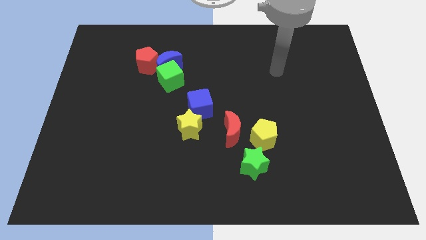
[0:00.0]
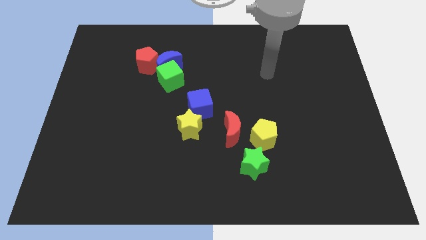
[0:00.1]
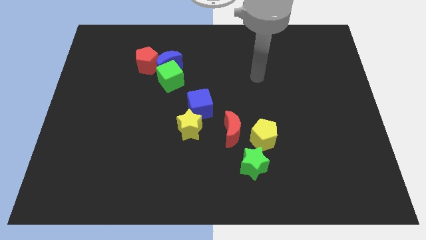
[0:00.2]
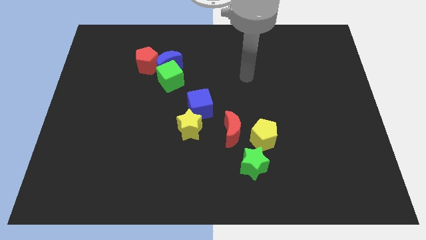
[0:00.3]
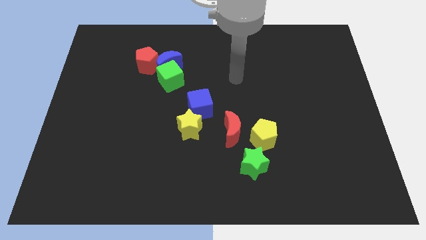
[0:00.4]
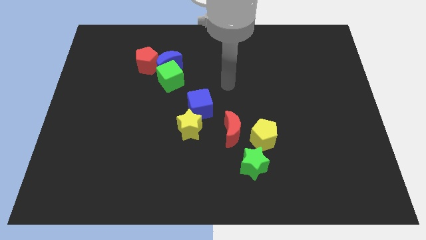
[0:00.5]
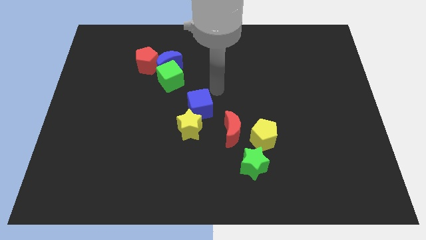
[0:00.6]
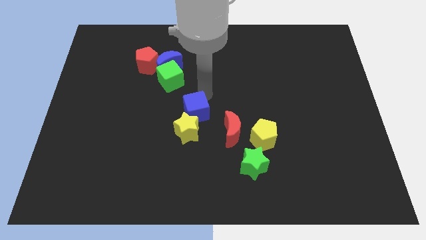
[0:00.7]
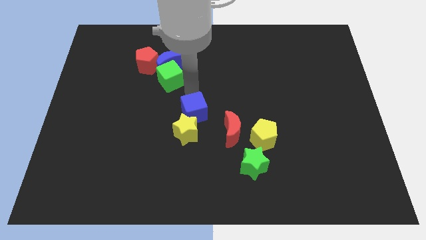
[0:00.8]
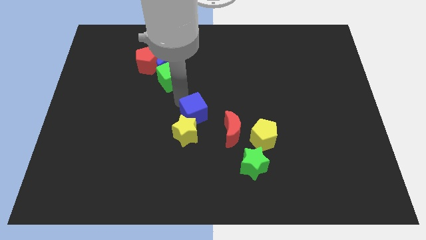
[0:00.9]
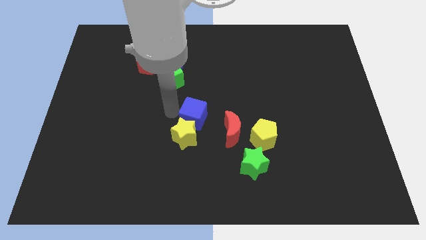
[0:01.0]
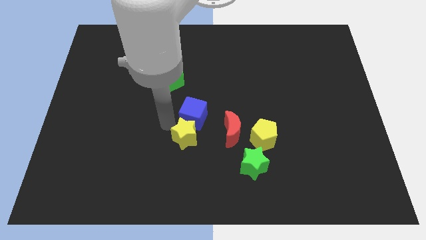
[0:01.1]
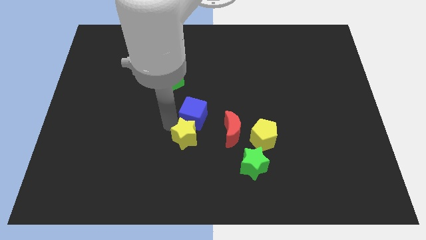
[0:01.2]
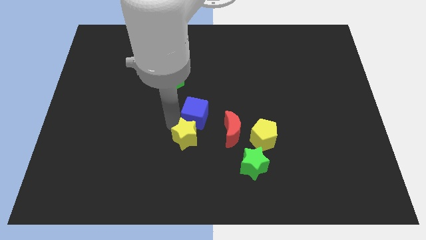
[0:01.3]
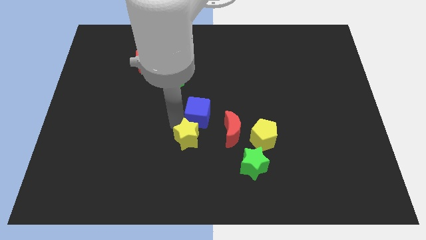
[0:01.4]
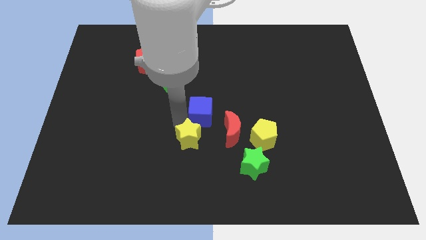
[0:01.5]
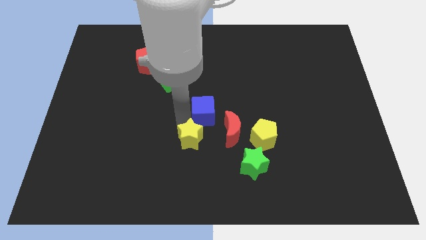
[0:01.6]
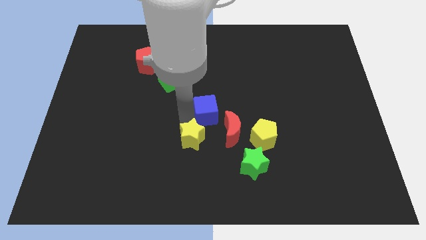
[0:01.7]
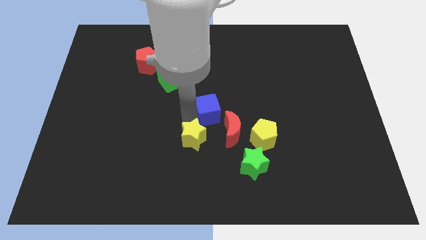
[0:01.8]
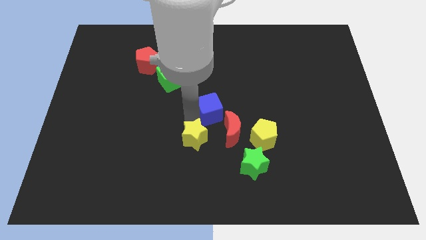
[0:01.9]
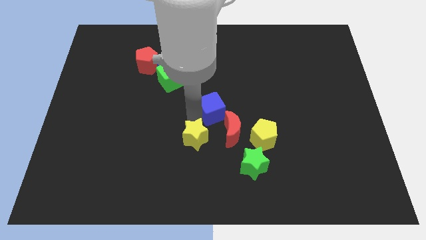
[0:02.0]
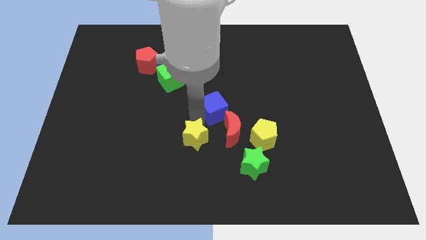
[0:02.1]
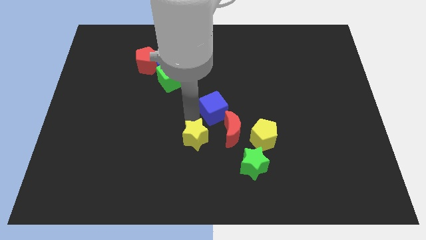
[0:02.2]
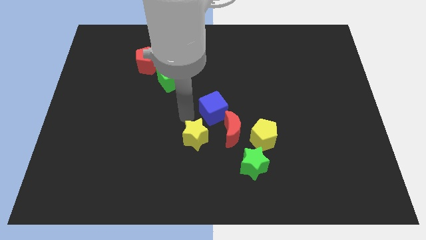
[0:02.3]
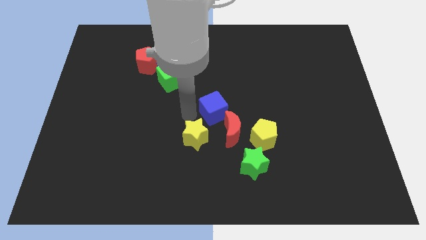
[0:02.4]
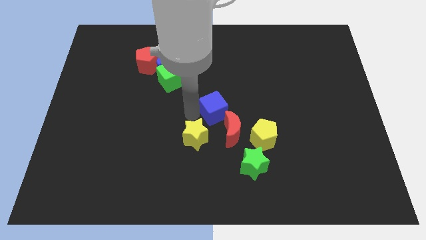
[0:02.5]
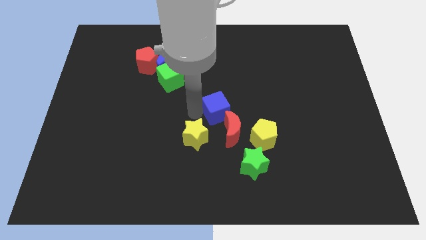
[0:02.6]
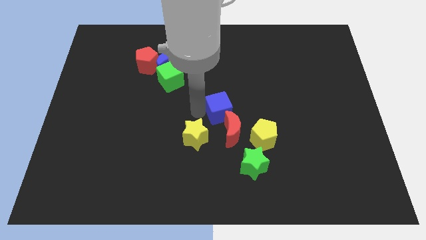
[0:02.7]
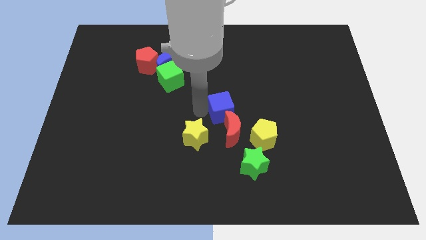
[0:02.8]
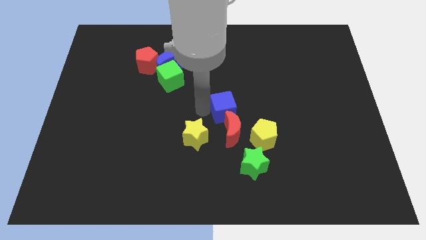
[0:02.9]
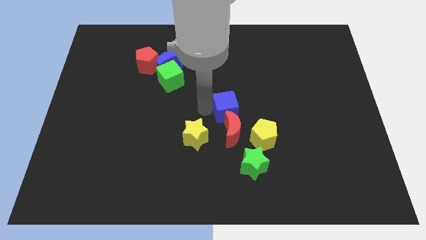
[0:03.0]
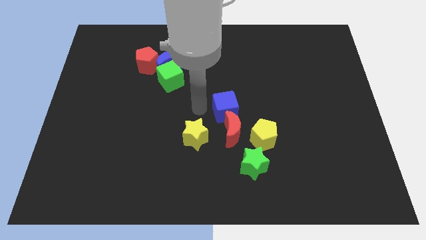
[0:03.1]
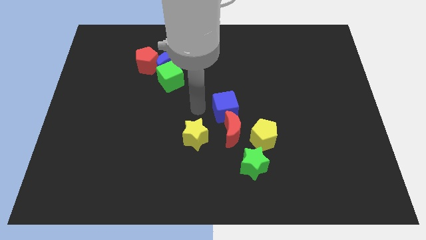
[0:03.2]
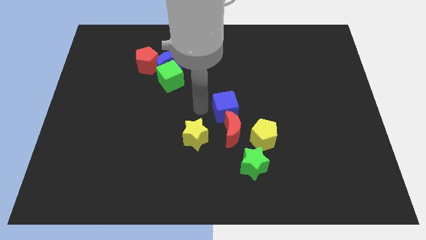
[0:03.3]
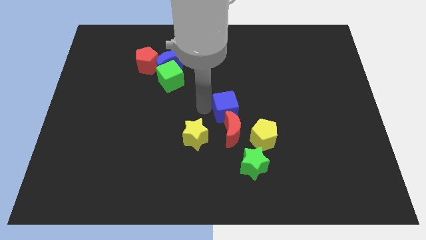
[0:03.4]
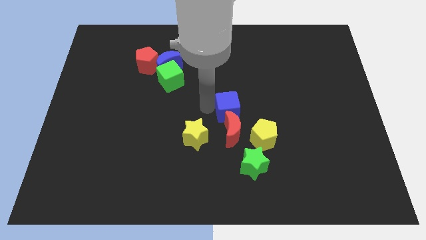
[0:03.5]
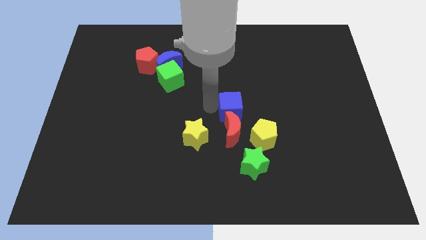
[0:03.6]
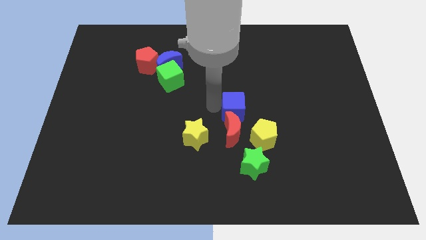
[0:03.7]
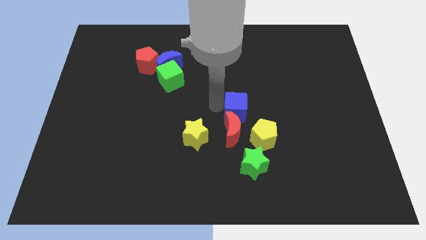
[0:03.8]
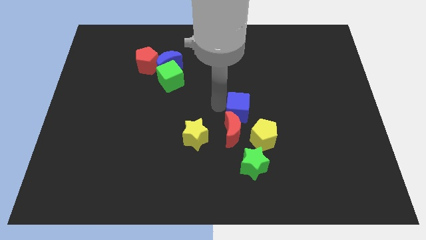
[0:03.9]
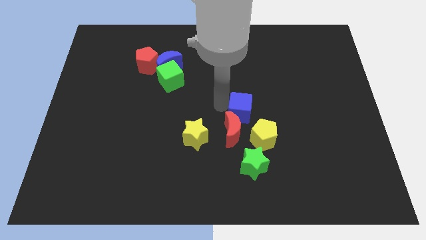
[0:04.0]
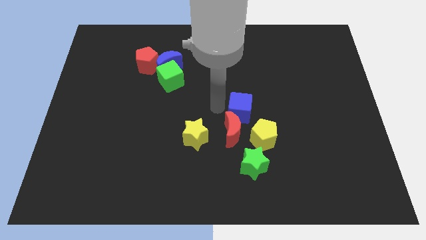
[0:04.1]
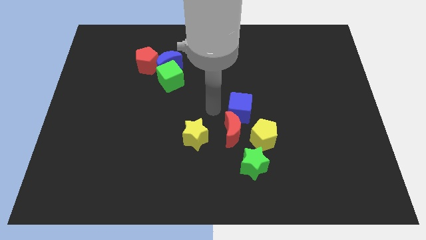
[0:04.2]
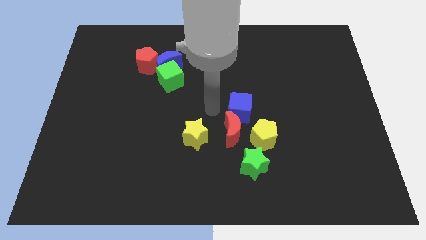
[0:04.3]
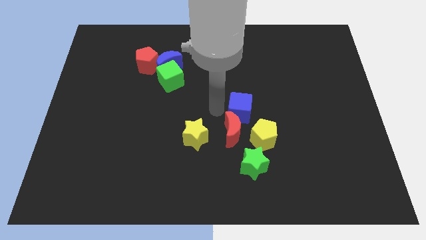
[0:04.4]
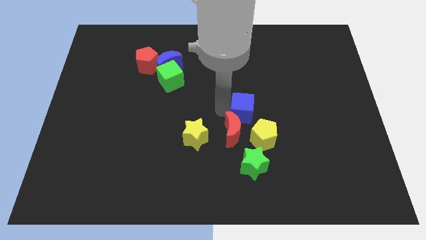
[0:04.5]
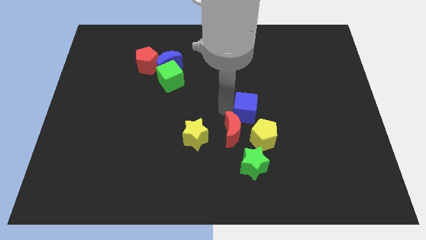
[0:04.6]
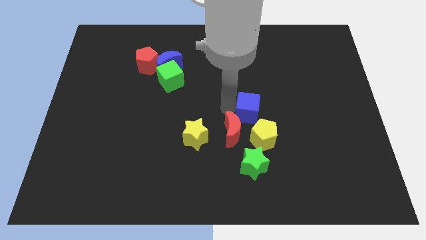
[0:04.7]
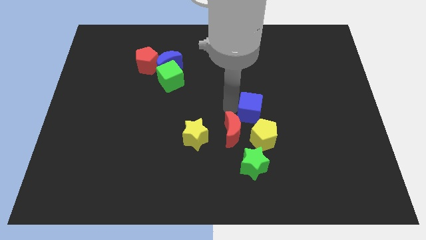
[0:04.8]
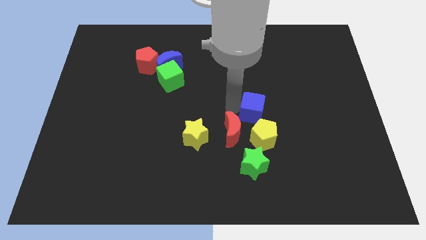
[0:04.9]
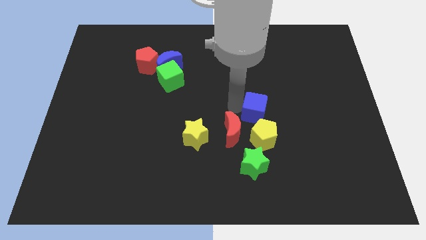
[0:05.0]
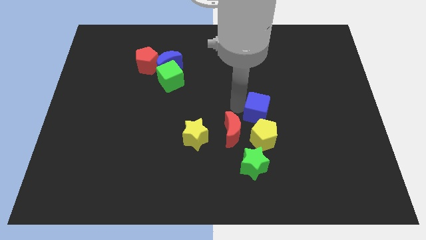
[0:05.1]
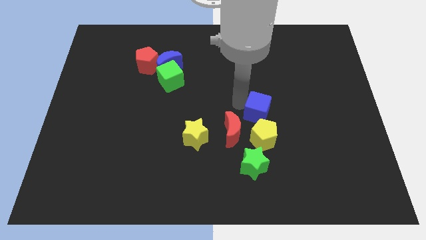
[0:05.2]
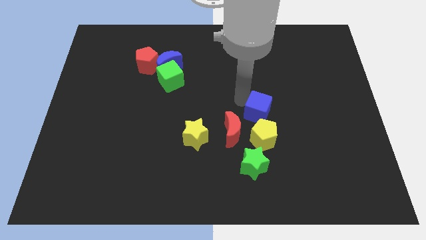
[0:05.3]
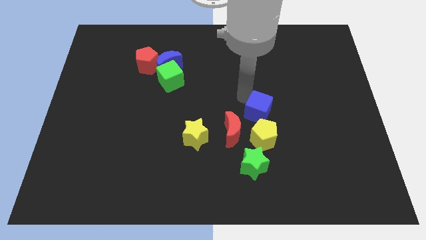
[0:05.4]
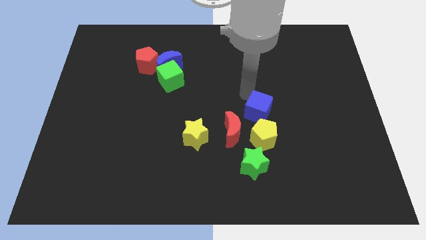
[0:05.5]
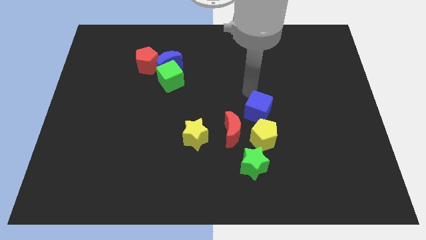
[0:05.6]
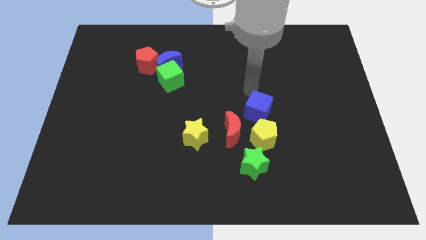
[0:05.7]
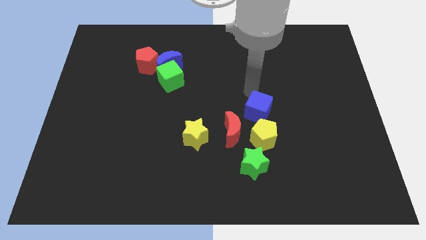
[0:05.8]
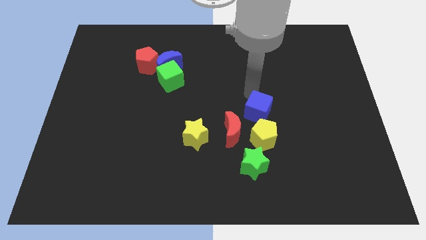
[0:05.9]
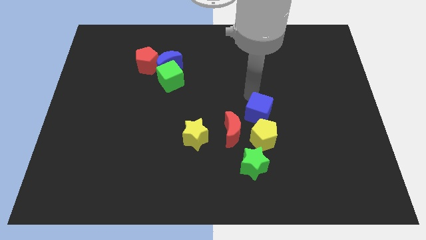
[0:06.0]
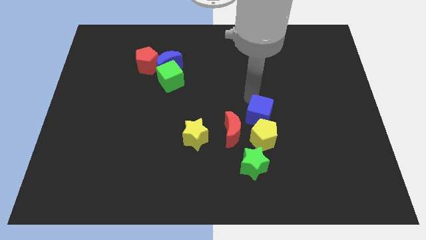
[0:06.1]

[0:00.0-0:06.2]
slide the blue cube close to the yellow pentagon
